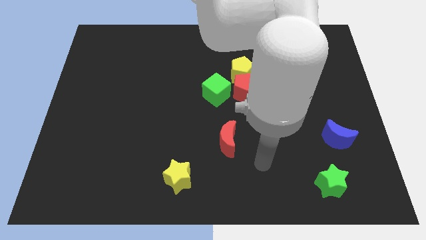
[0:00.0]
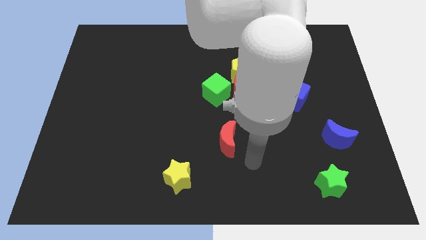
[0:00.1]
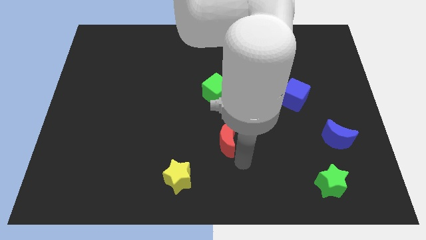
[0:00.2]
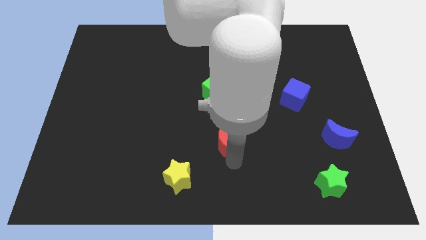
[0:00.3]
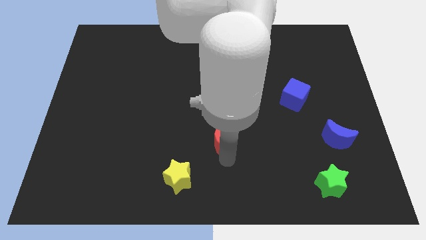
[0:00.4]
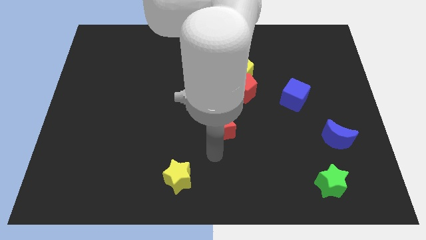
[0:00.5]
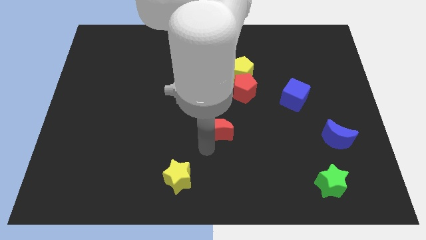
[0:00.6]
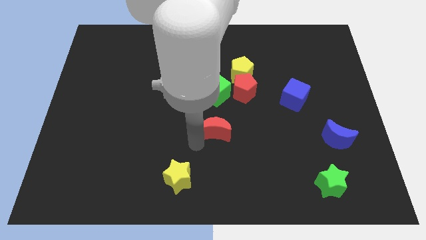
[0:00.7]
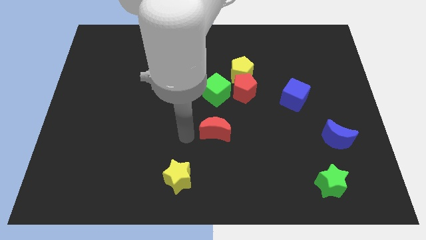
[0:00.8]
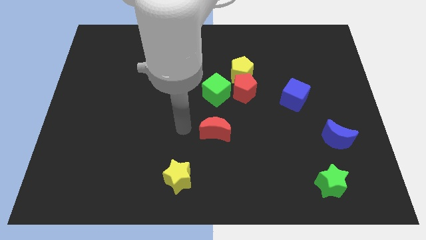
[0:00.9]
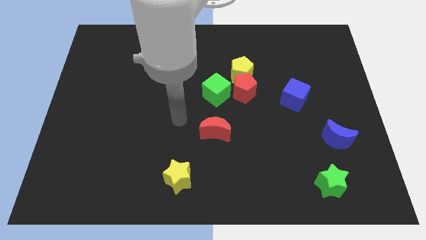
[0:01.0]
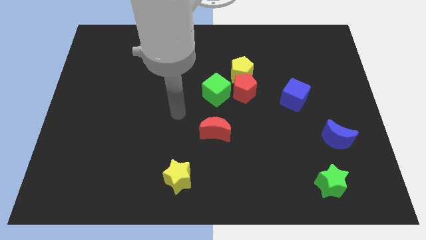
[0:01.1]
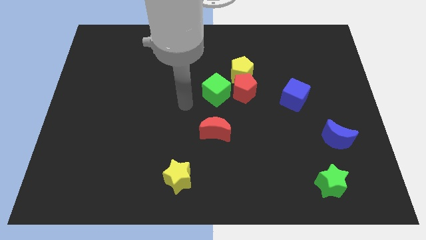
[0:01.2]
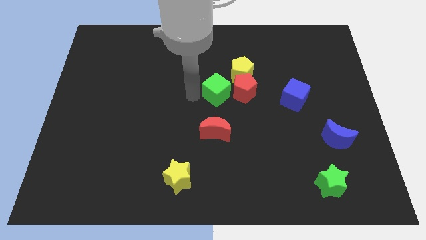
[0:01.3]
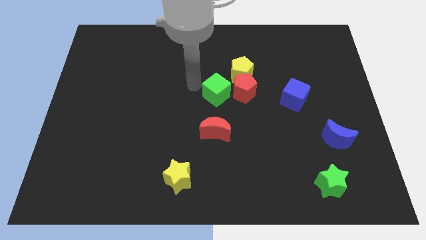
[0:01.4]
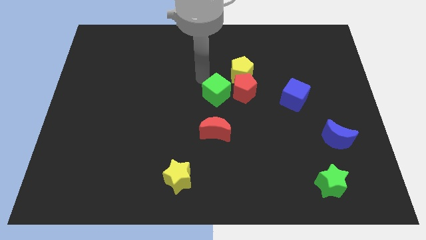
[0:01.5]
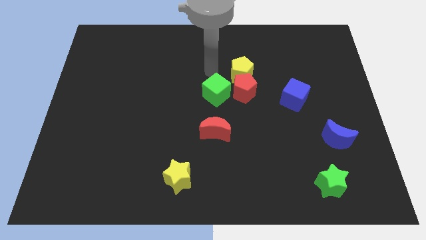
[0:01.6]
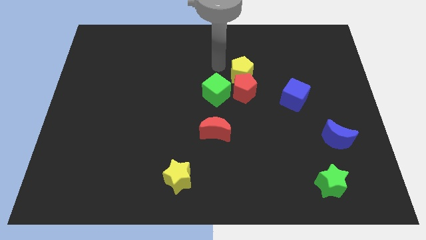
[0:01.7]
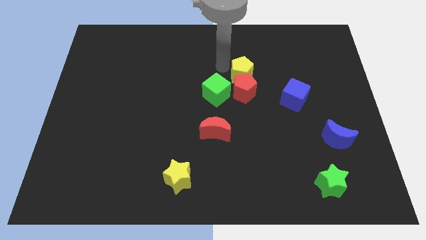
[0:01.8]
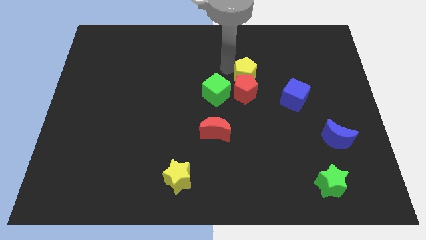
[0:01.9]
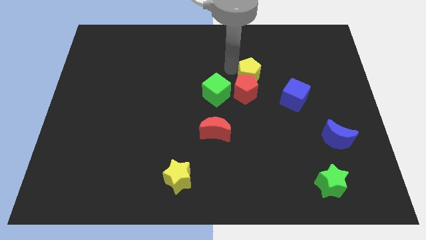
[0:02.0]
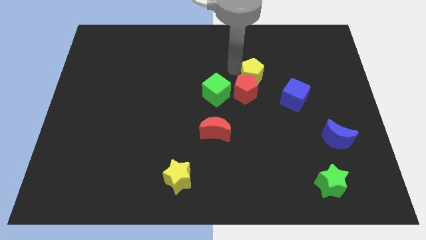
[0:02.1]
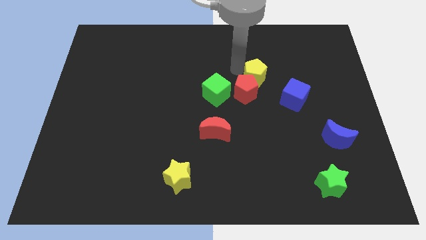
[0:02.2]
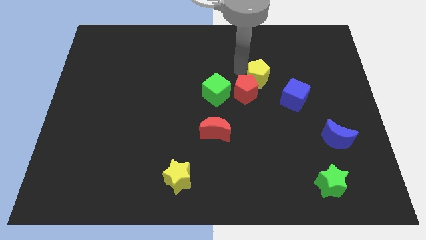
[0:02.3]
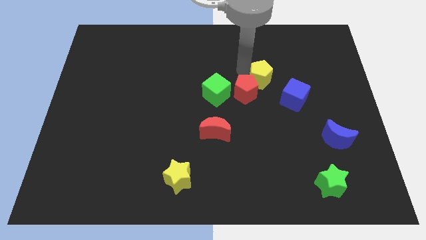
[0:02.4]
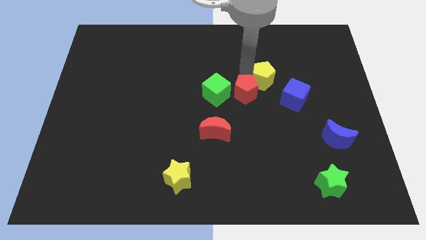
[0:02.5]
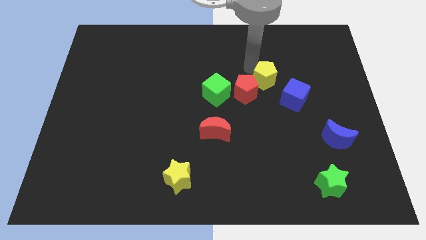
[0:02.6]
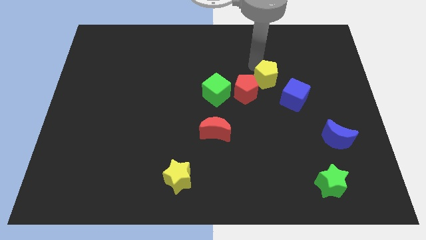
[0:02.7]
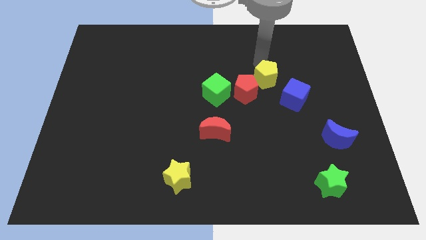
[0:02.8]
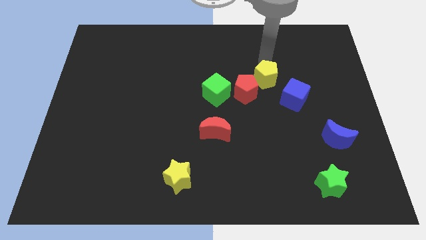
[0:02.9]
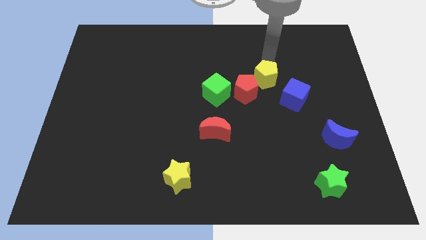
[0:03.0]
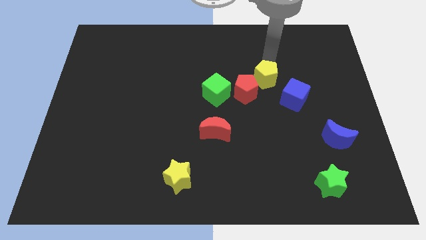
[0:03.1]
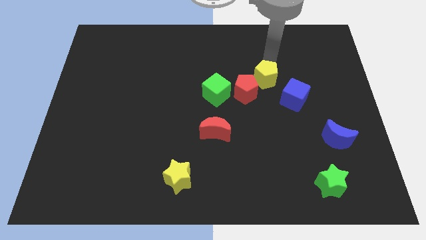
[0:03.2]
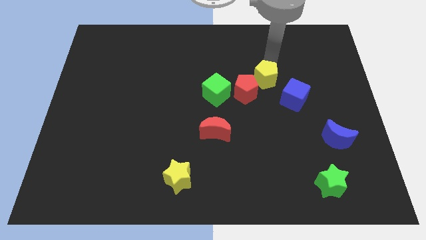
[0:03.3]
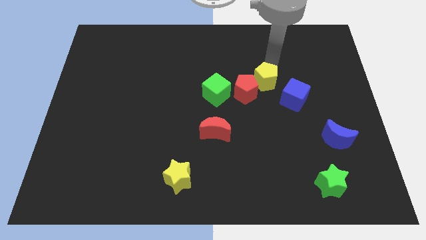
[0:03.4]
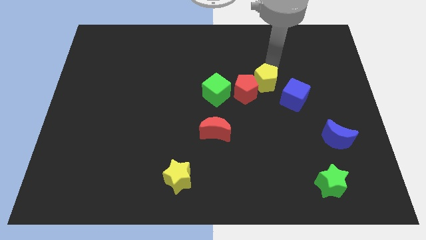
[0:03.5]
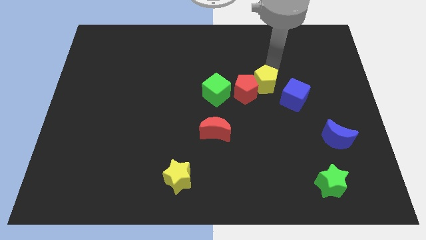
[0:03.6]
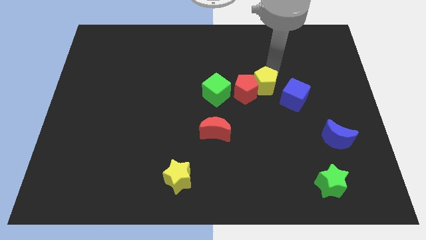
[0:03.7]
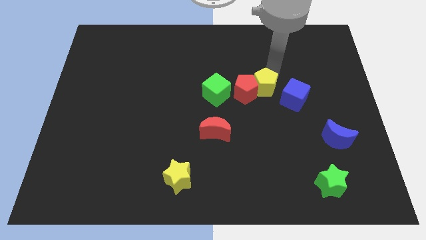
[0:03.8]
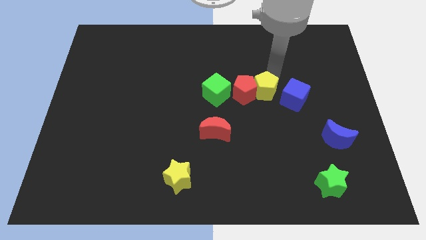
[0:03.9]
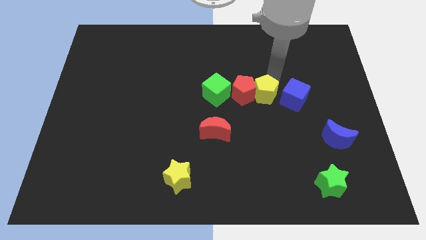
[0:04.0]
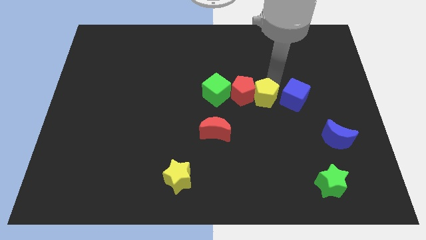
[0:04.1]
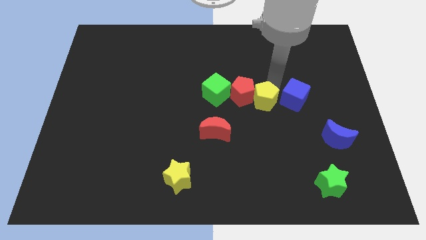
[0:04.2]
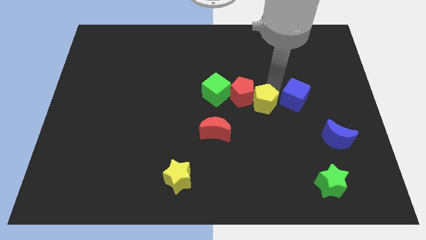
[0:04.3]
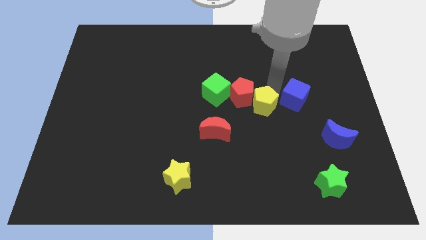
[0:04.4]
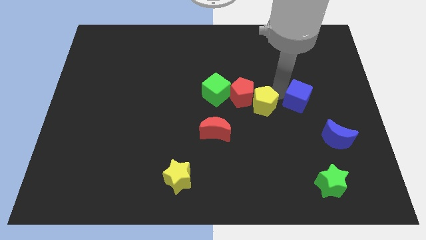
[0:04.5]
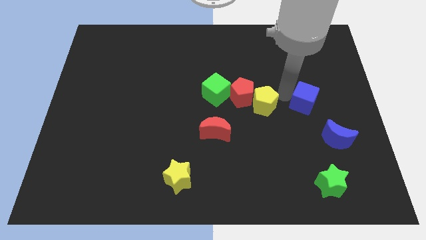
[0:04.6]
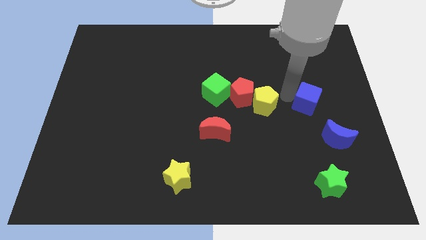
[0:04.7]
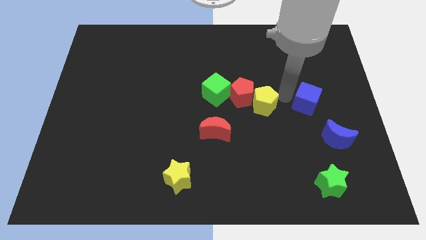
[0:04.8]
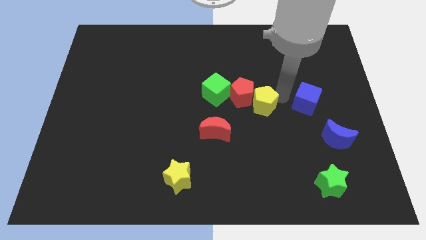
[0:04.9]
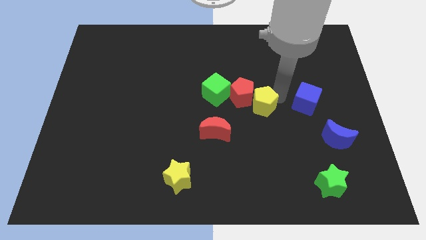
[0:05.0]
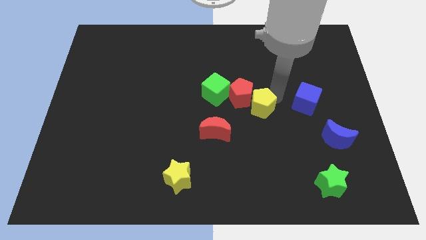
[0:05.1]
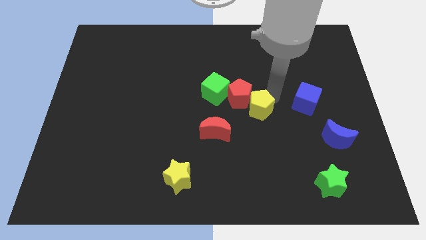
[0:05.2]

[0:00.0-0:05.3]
push the yellow pentagon to the top right side of the red moon

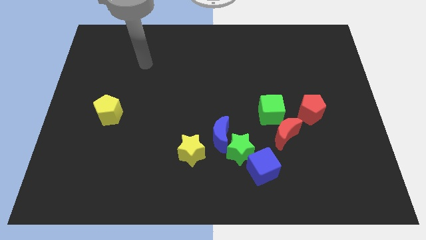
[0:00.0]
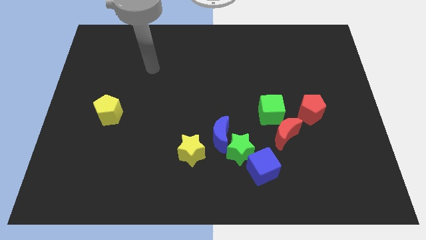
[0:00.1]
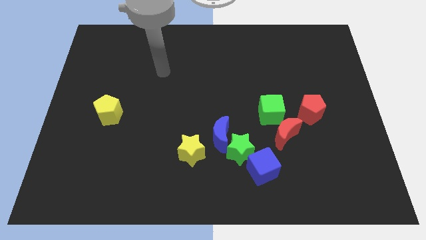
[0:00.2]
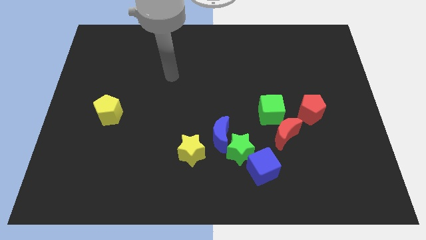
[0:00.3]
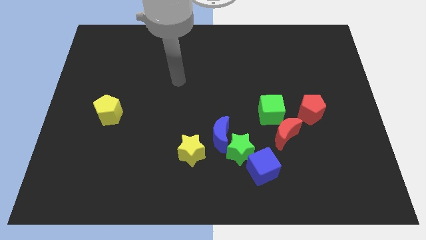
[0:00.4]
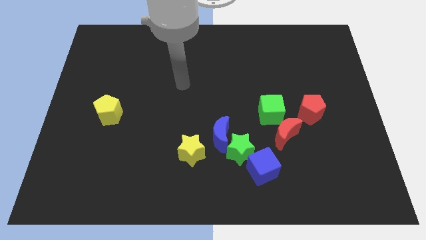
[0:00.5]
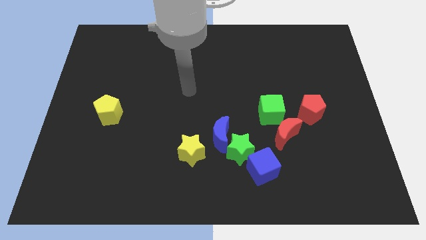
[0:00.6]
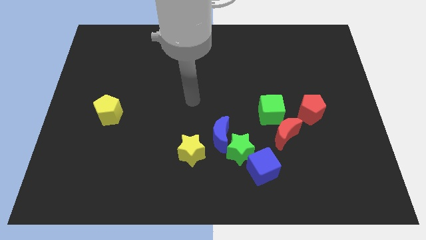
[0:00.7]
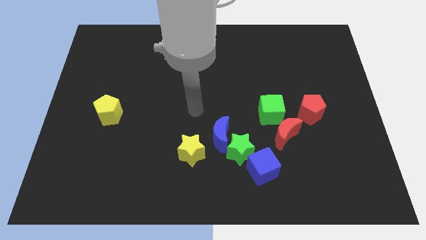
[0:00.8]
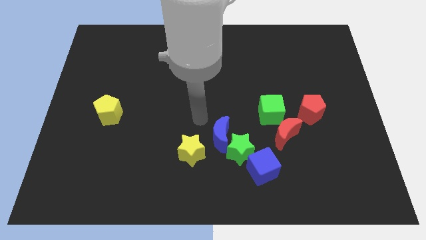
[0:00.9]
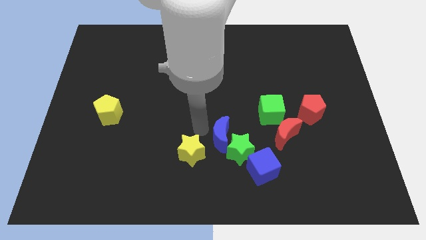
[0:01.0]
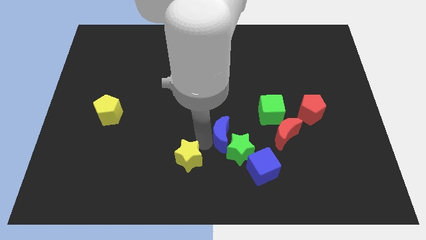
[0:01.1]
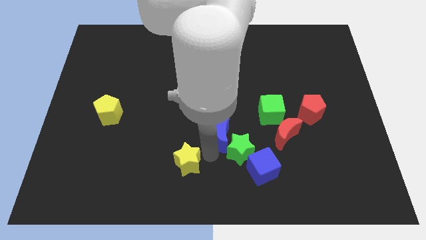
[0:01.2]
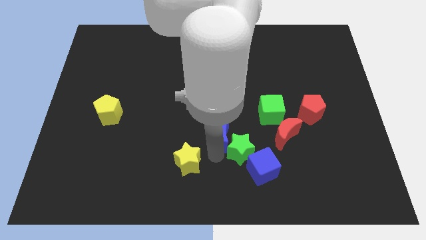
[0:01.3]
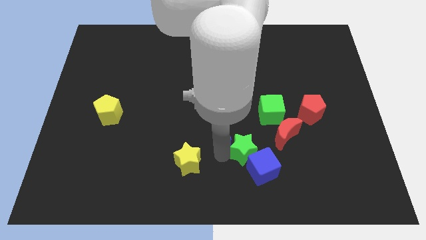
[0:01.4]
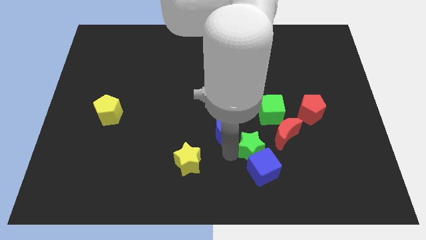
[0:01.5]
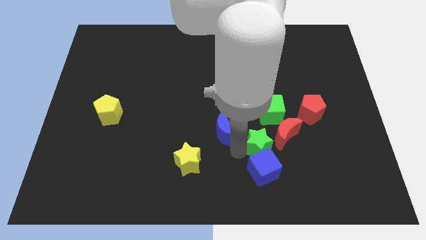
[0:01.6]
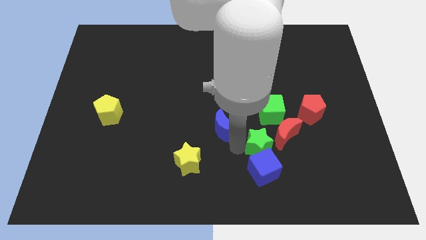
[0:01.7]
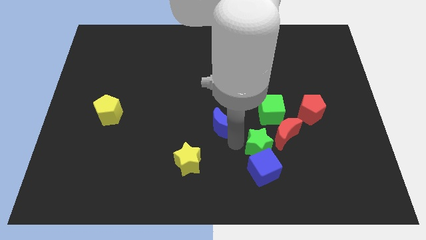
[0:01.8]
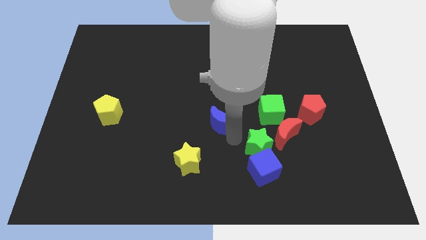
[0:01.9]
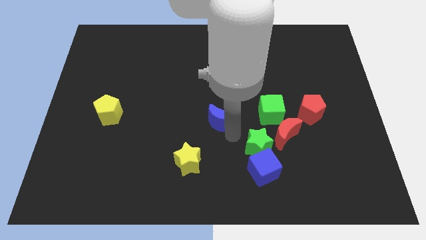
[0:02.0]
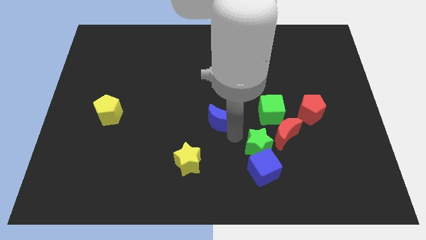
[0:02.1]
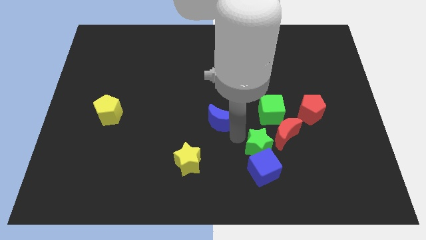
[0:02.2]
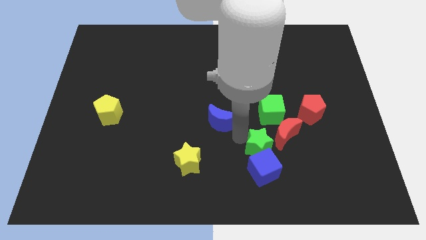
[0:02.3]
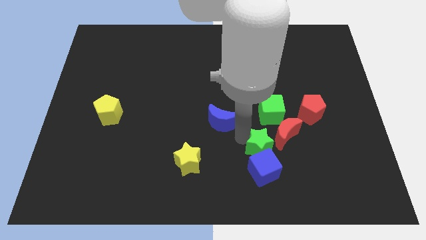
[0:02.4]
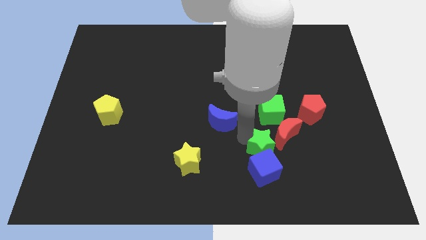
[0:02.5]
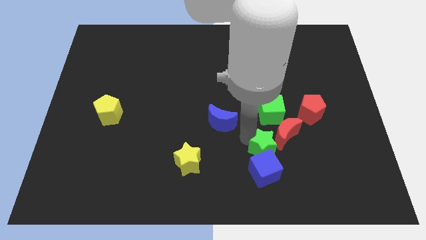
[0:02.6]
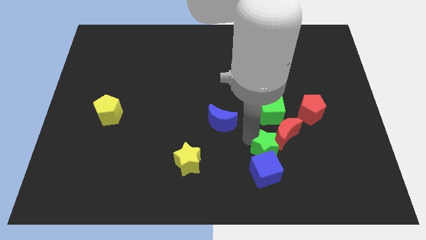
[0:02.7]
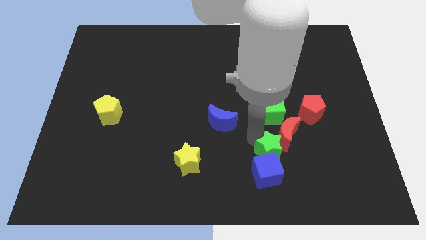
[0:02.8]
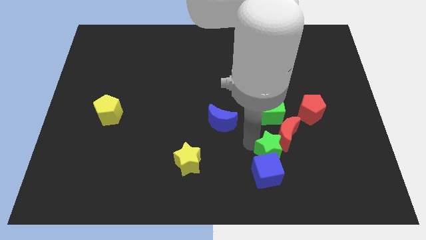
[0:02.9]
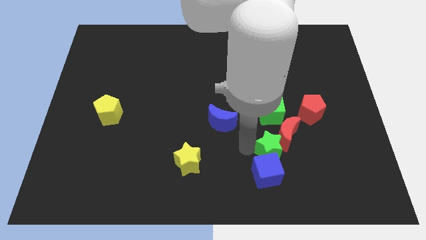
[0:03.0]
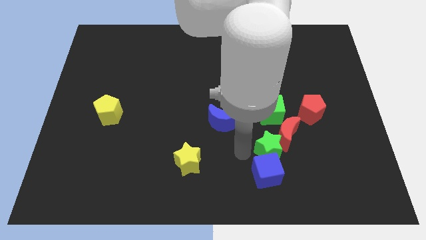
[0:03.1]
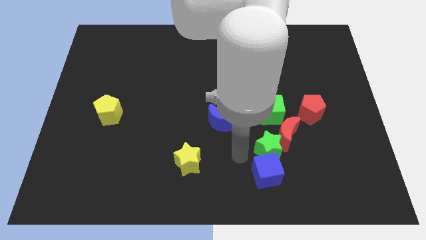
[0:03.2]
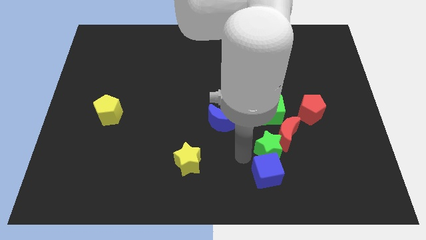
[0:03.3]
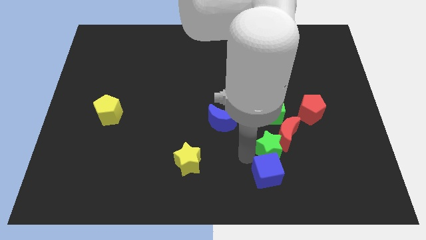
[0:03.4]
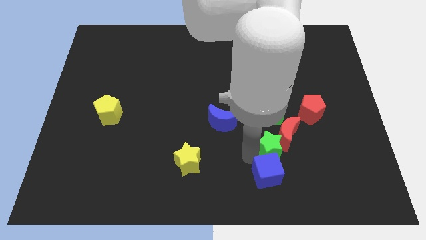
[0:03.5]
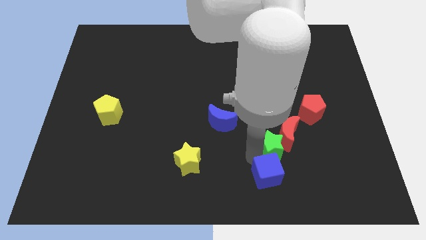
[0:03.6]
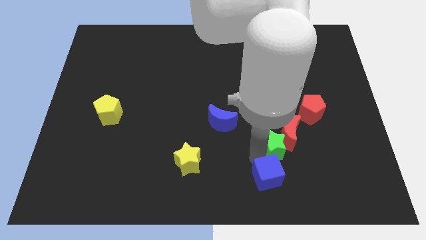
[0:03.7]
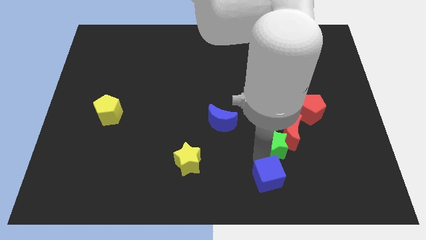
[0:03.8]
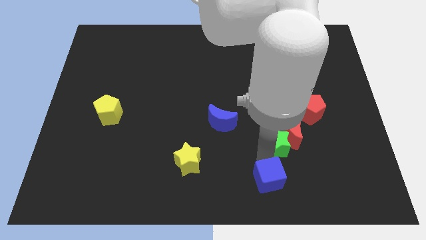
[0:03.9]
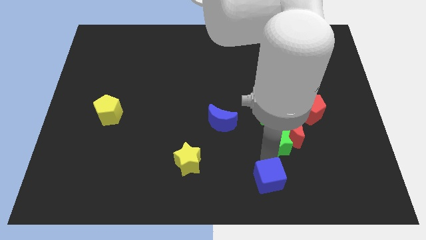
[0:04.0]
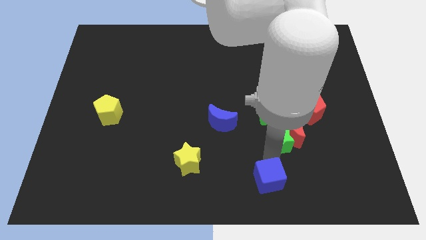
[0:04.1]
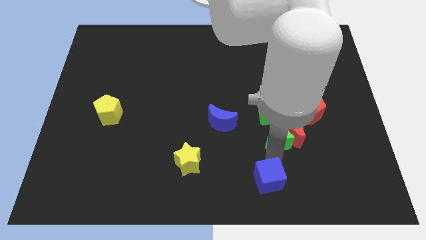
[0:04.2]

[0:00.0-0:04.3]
move the green star diagonally down and to the right of the green cube
